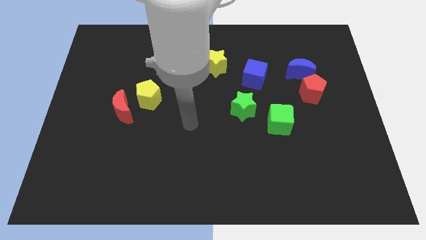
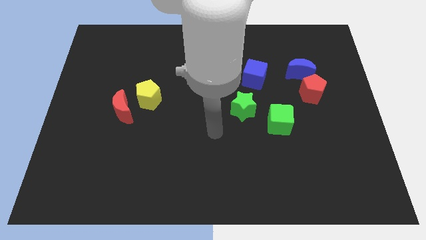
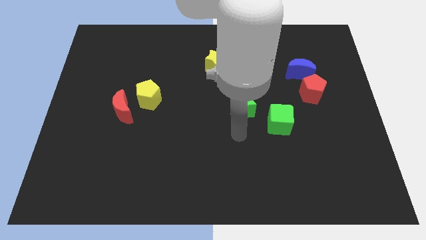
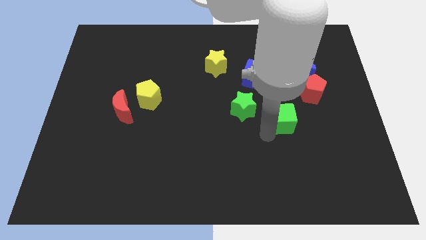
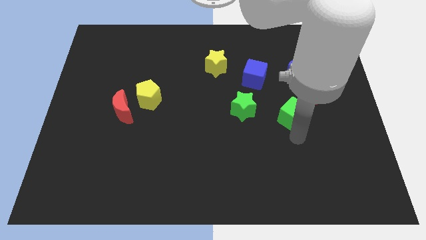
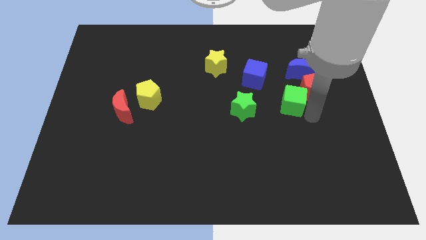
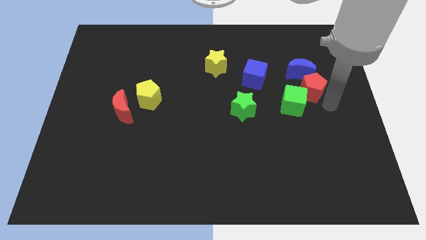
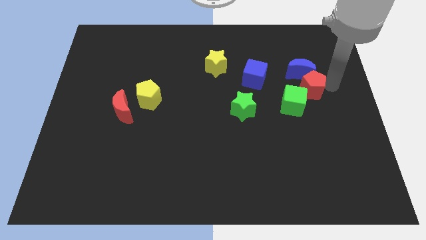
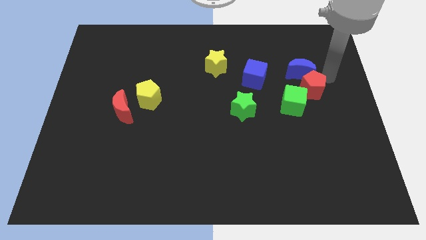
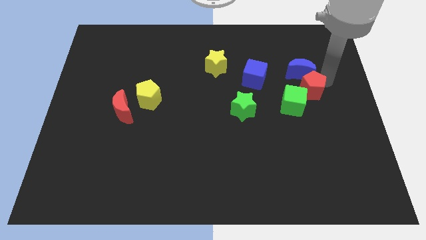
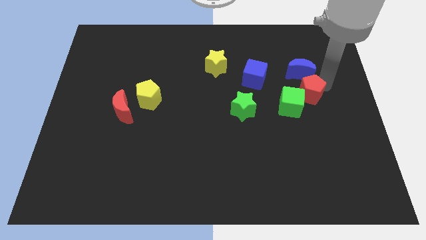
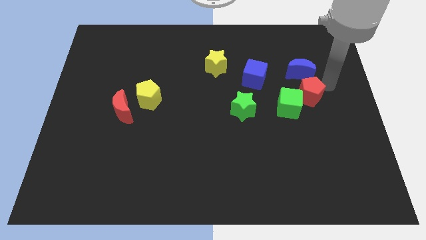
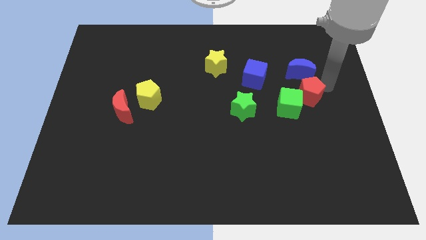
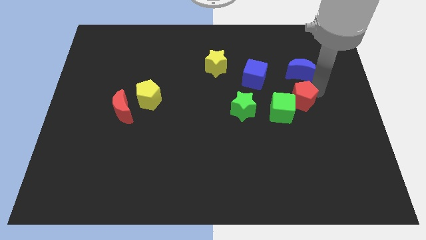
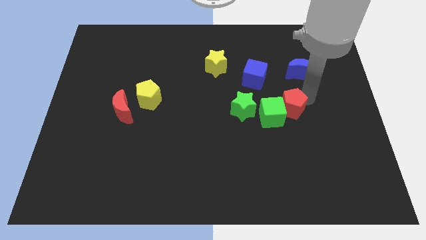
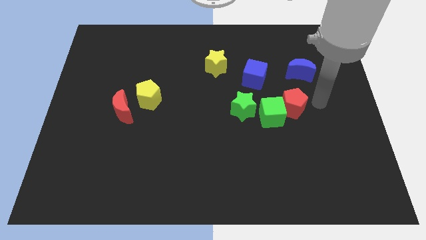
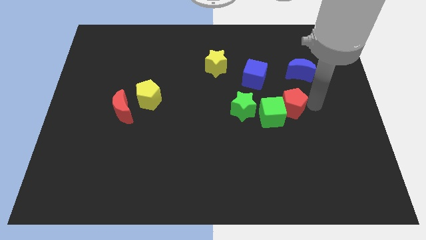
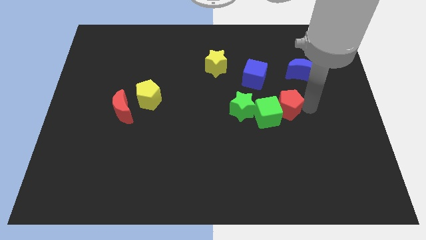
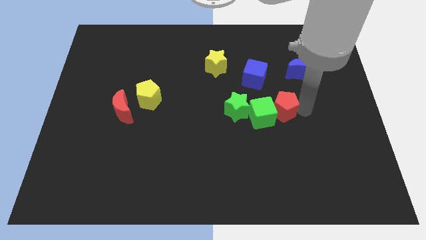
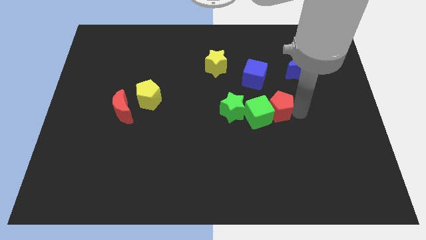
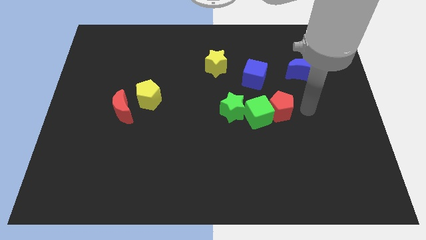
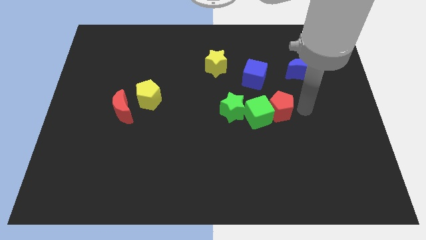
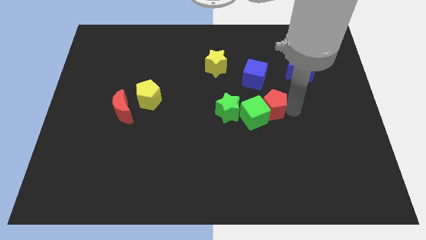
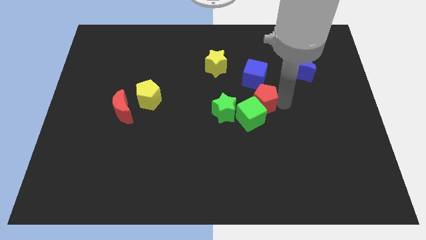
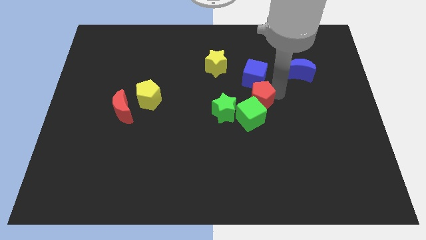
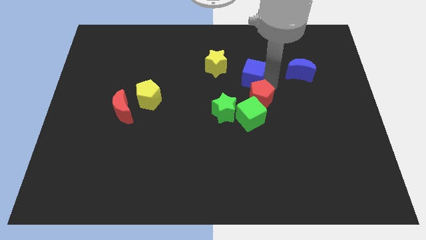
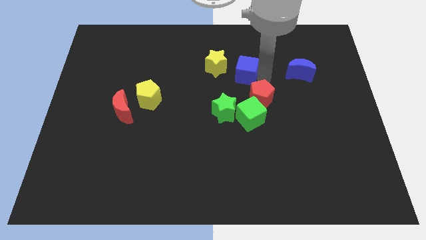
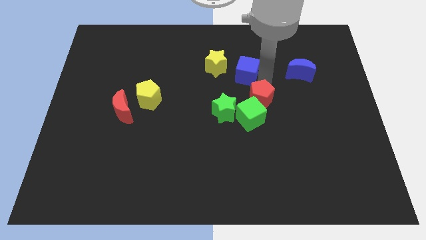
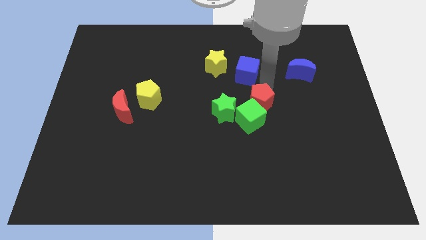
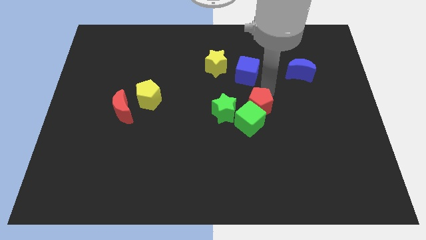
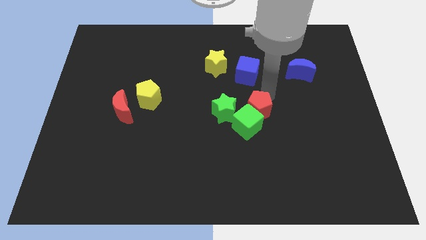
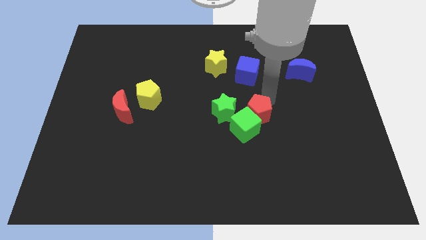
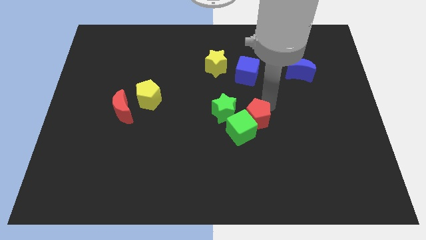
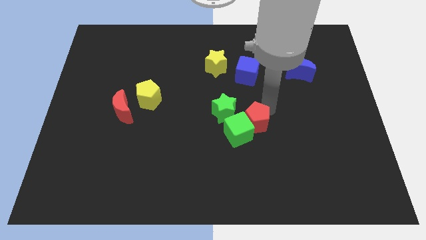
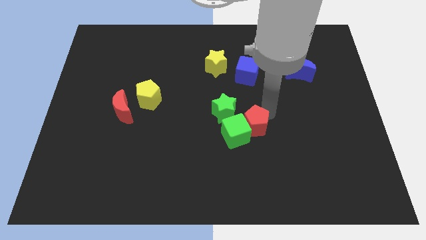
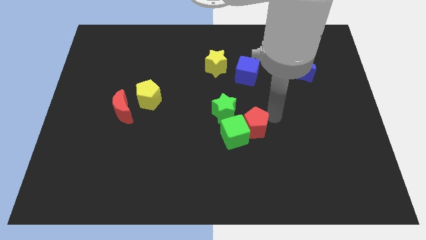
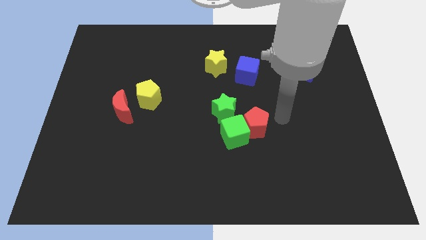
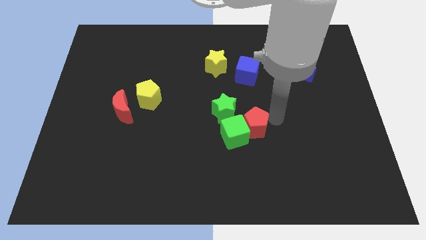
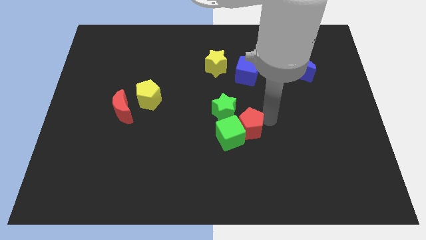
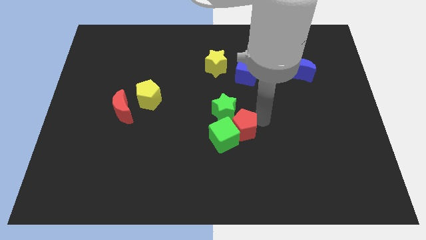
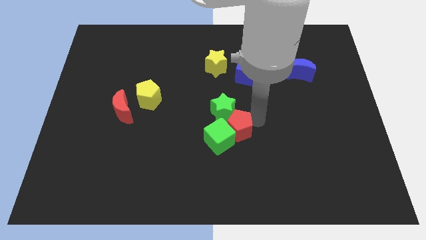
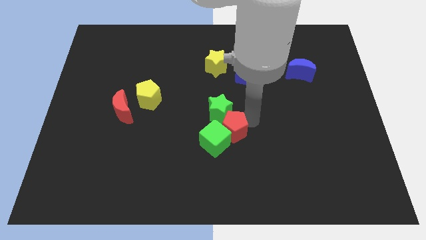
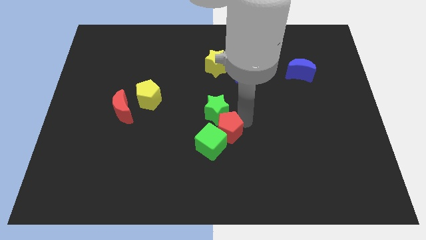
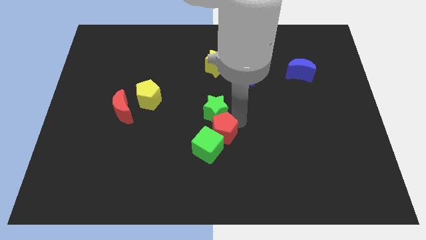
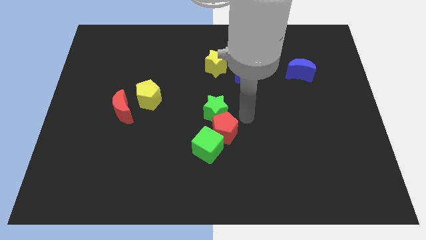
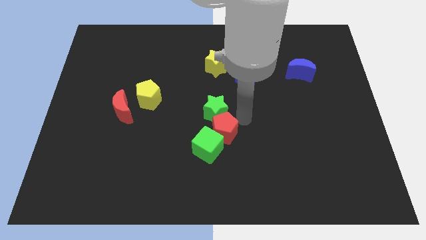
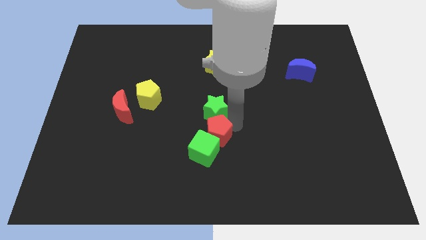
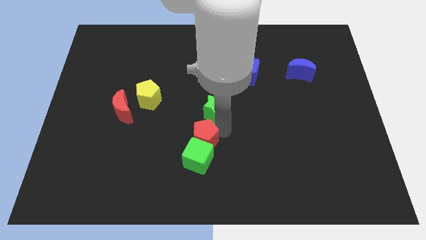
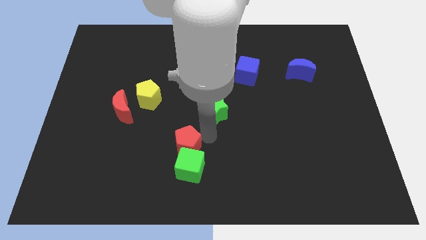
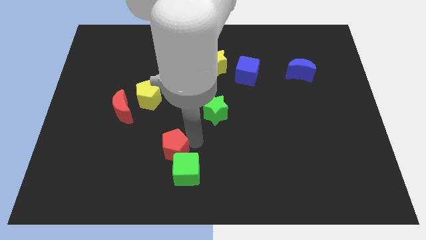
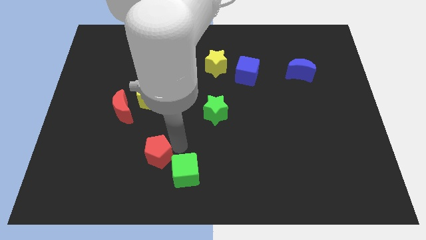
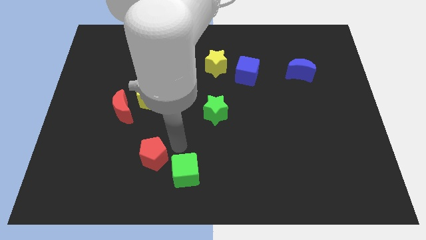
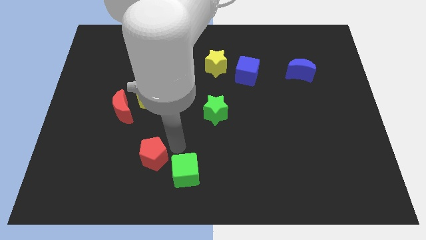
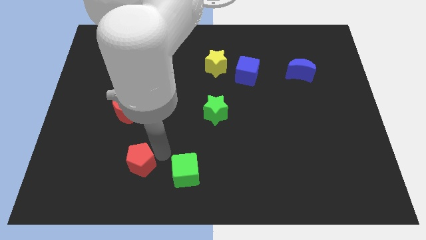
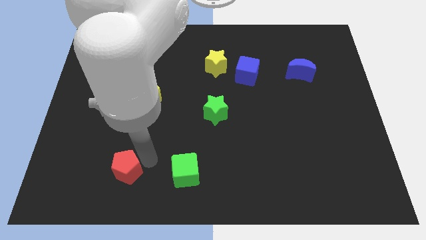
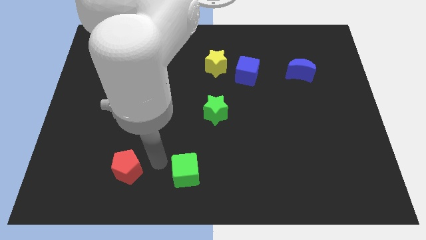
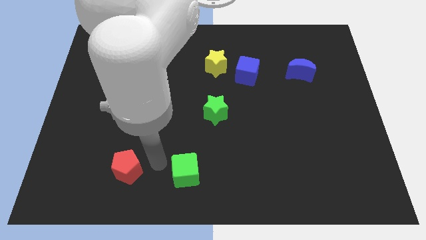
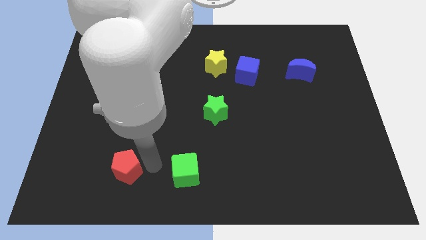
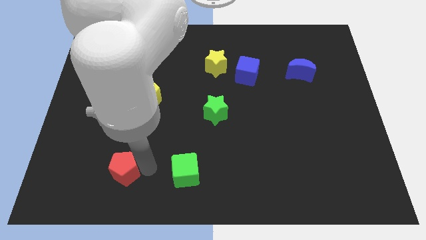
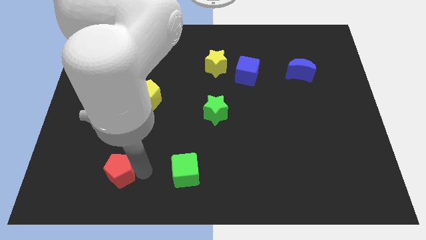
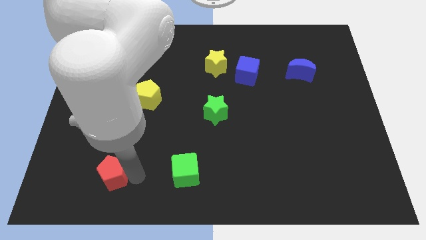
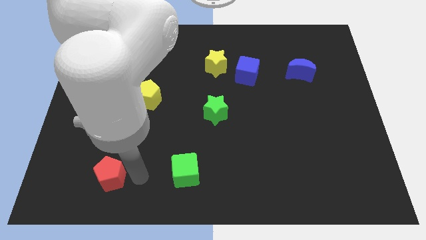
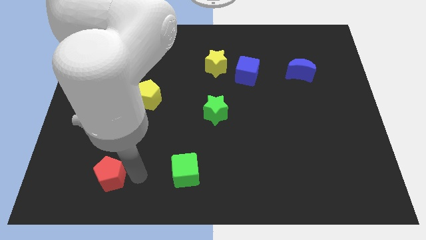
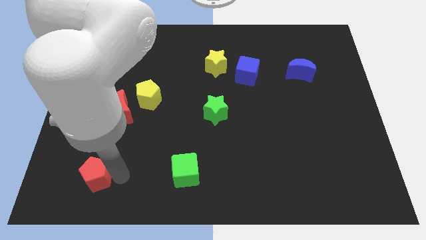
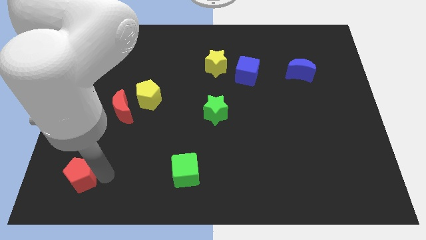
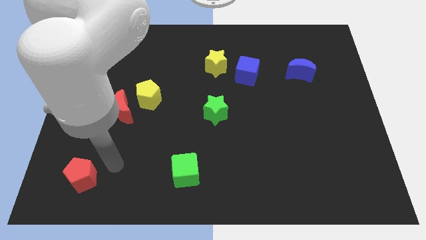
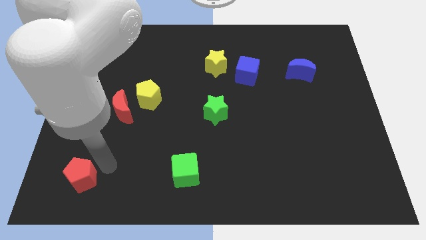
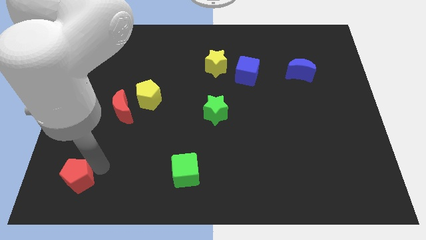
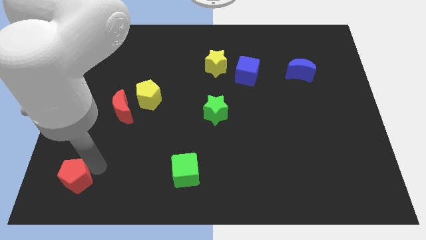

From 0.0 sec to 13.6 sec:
put the red pentagon to the bottom left
